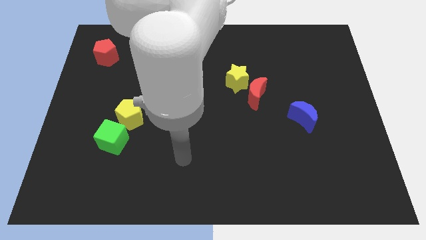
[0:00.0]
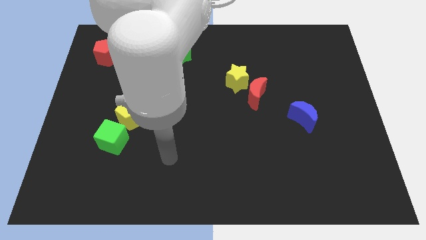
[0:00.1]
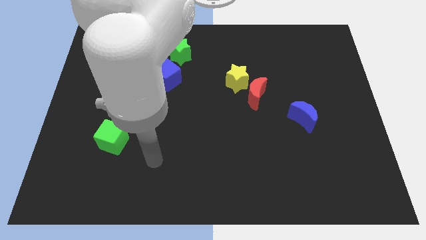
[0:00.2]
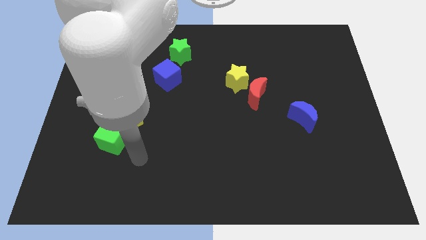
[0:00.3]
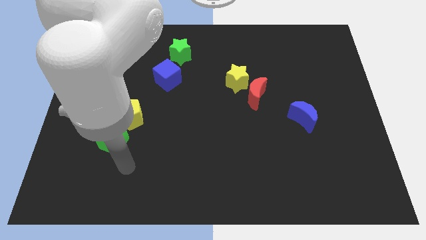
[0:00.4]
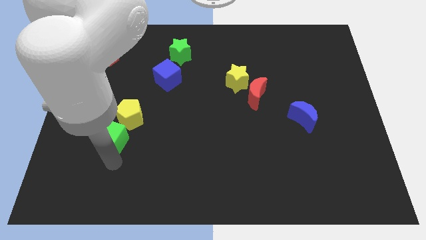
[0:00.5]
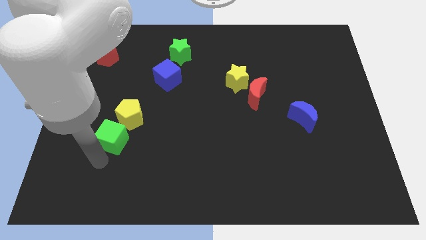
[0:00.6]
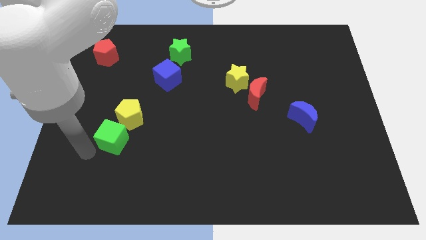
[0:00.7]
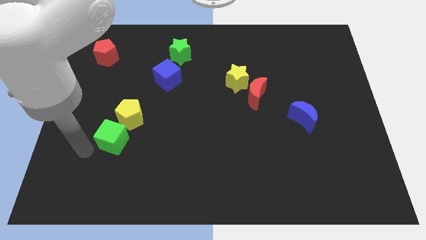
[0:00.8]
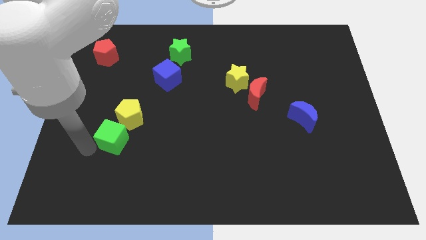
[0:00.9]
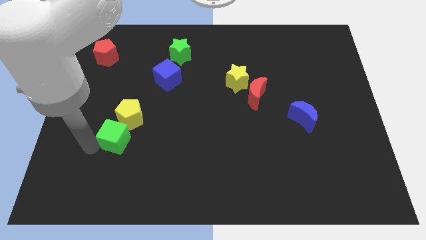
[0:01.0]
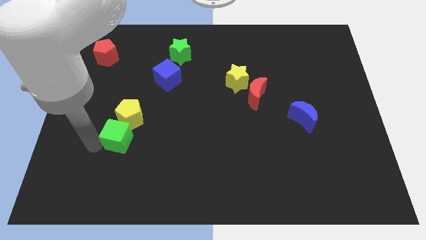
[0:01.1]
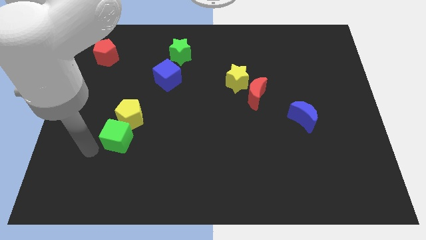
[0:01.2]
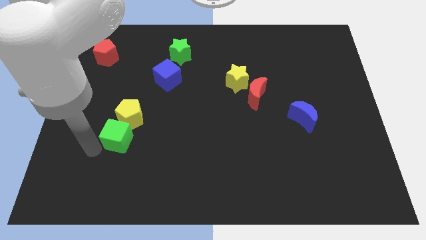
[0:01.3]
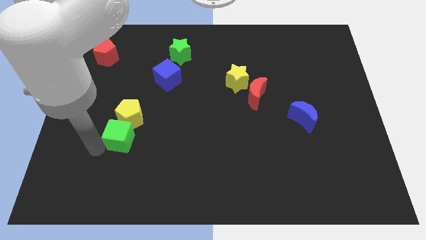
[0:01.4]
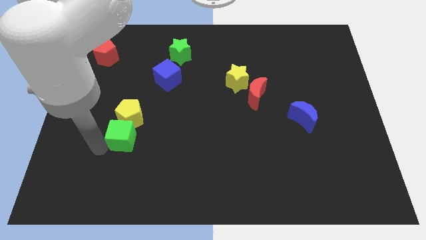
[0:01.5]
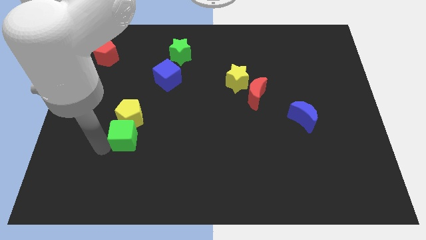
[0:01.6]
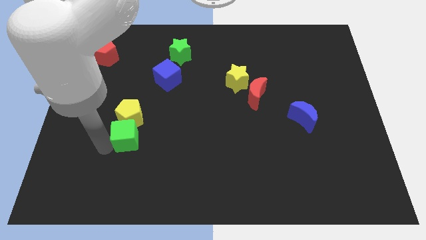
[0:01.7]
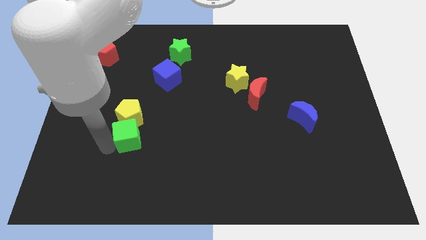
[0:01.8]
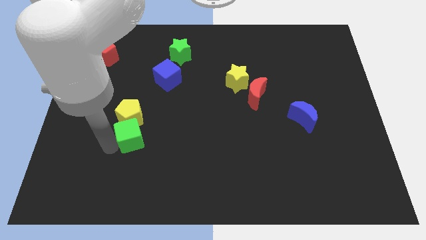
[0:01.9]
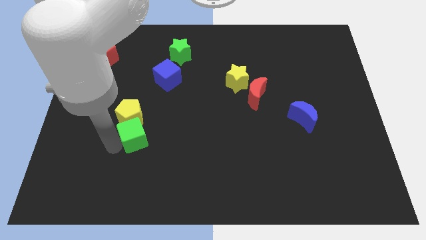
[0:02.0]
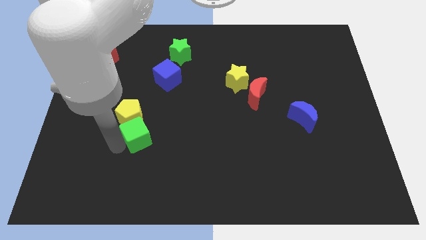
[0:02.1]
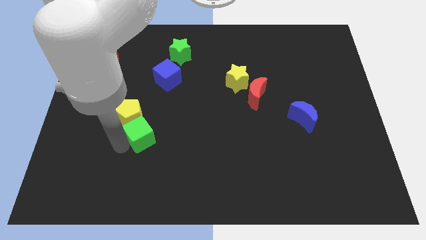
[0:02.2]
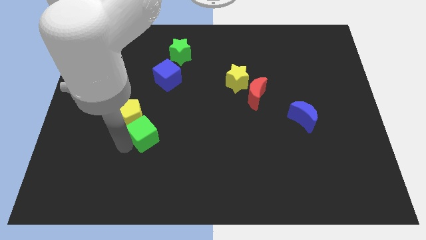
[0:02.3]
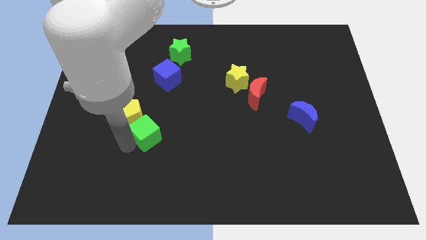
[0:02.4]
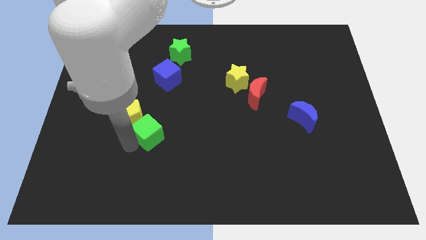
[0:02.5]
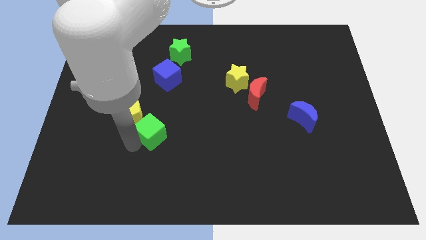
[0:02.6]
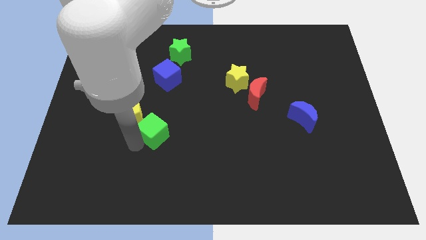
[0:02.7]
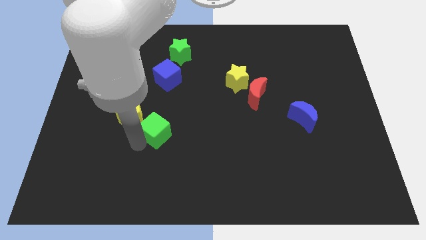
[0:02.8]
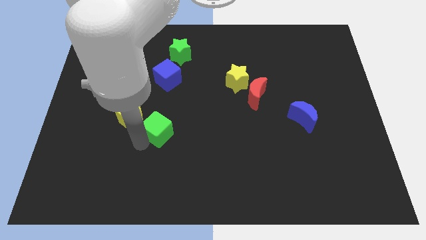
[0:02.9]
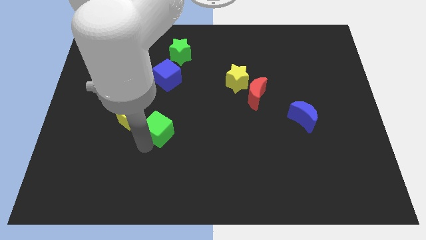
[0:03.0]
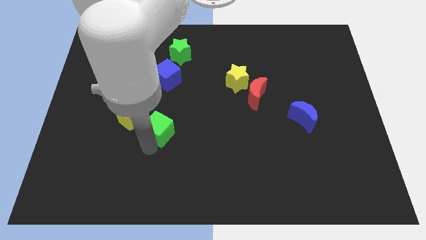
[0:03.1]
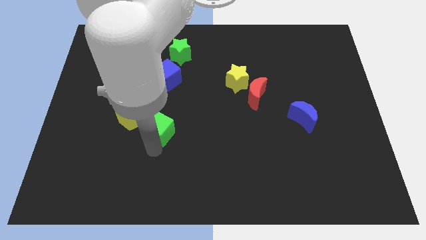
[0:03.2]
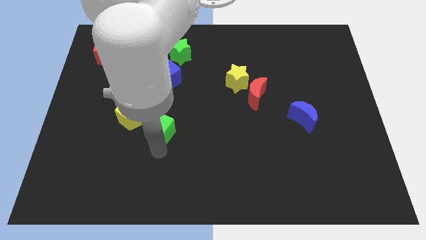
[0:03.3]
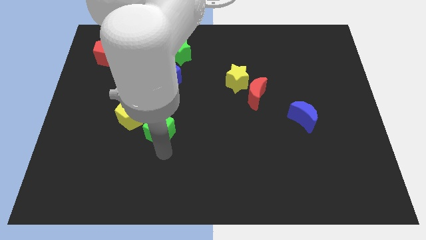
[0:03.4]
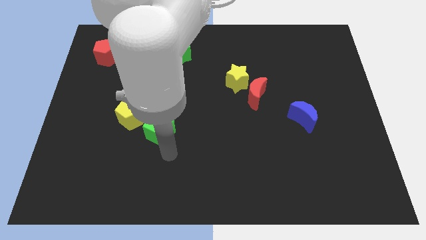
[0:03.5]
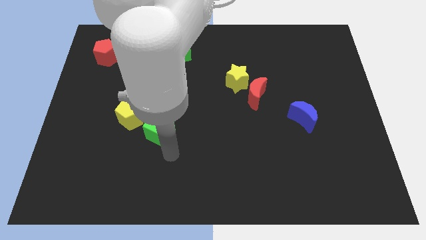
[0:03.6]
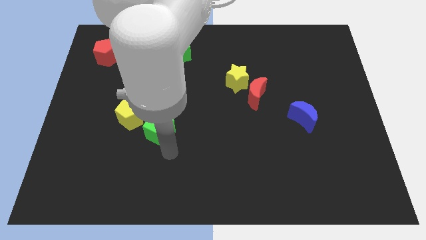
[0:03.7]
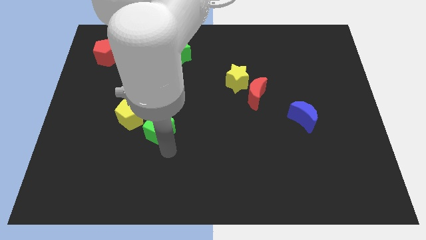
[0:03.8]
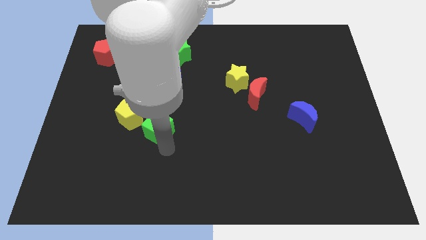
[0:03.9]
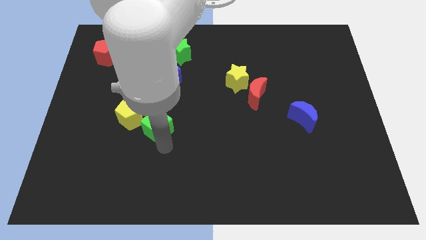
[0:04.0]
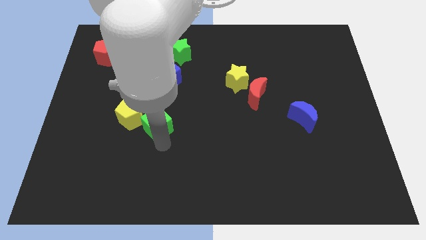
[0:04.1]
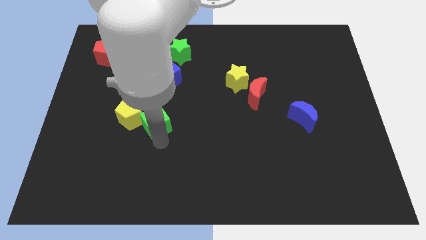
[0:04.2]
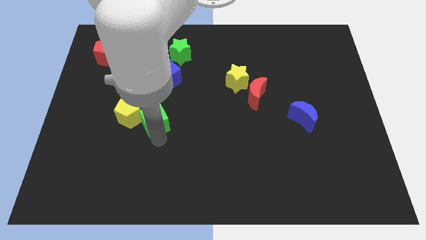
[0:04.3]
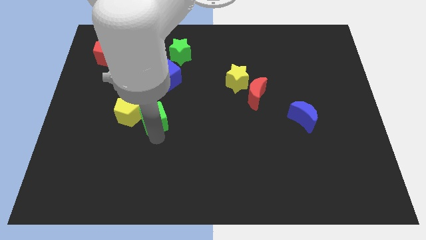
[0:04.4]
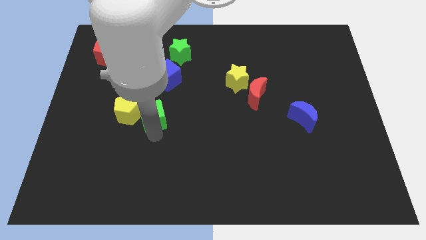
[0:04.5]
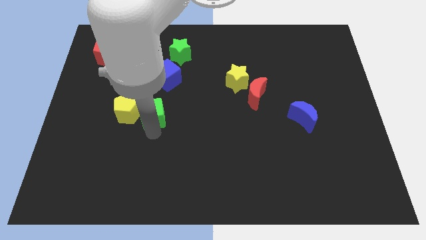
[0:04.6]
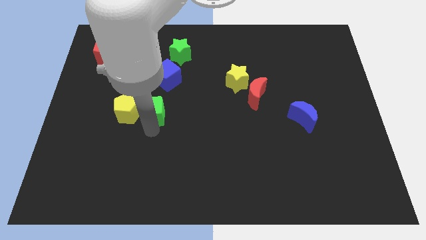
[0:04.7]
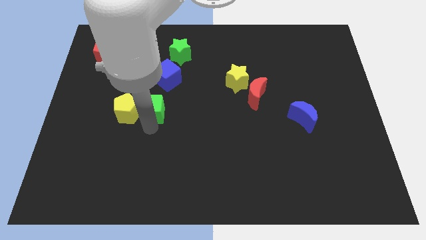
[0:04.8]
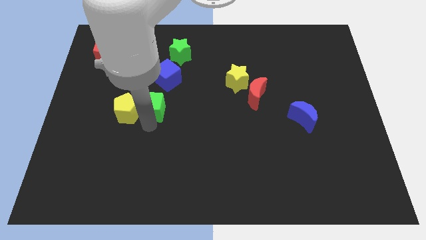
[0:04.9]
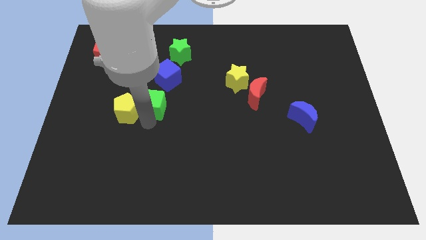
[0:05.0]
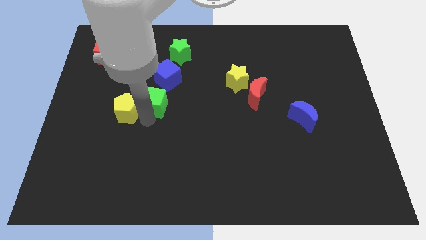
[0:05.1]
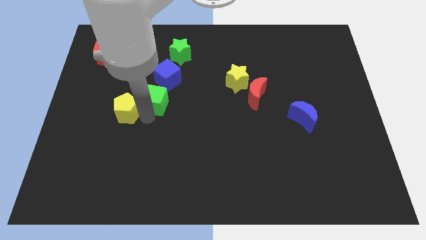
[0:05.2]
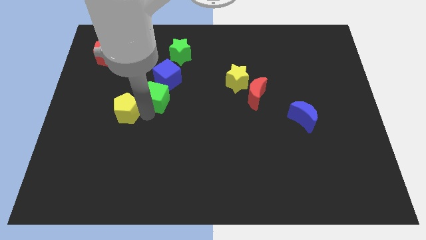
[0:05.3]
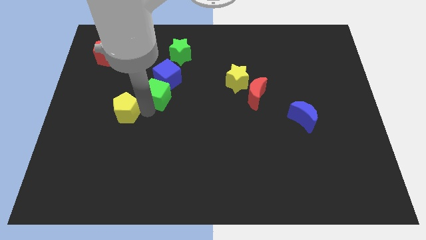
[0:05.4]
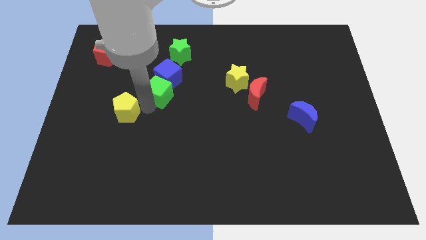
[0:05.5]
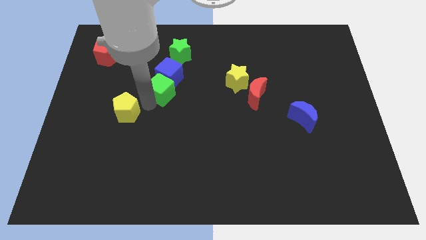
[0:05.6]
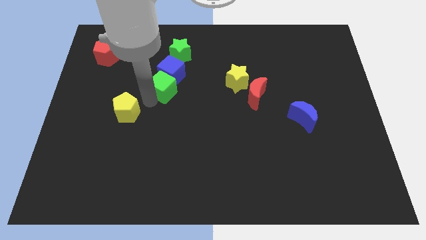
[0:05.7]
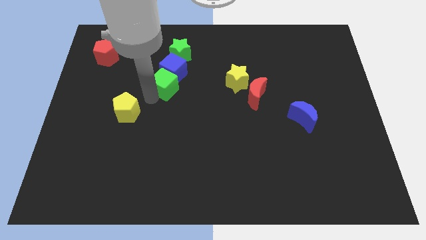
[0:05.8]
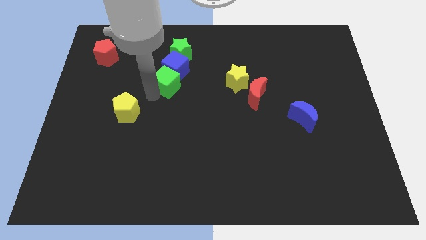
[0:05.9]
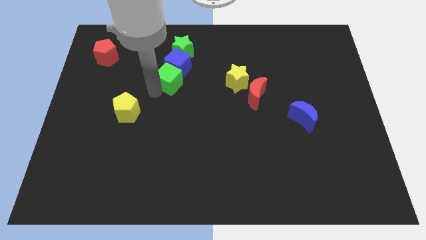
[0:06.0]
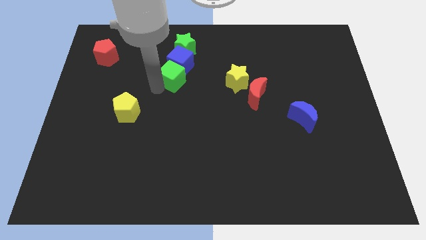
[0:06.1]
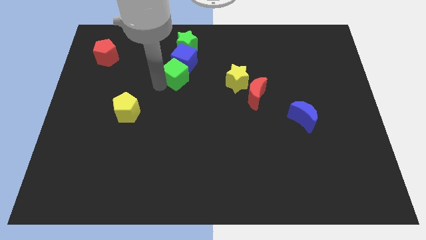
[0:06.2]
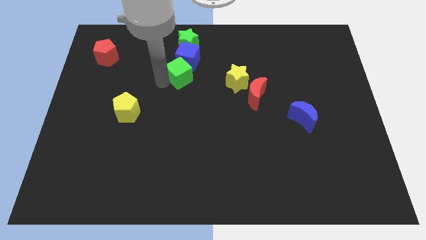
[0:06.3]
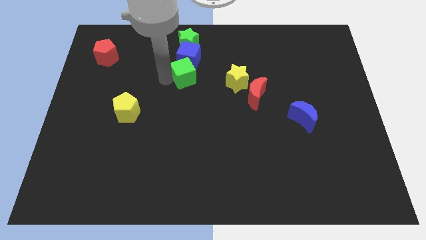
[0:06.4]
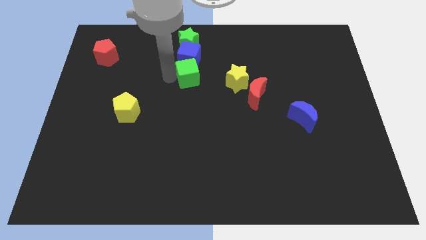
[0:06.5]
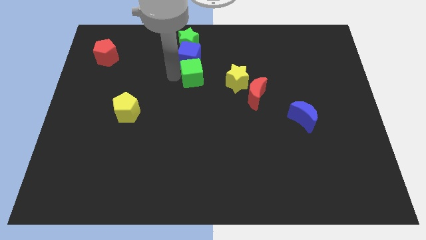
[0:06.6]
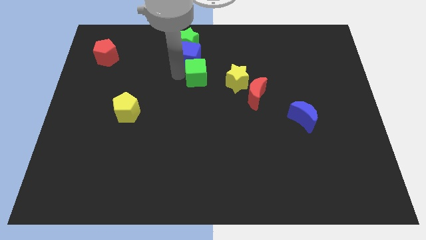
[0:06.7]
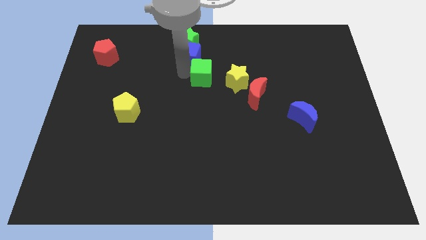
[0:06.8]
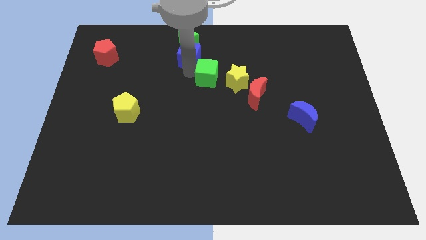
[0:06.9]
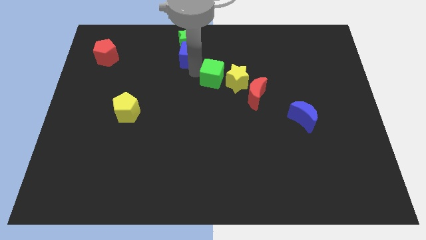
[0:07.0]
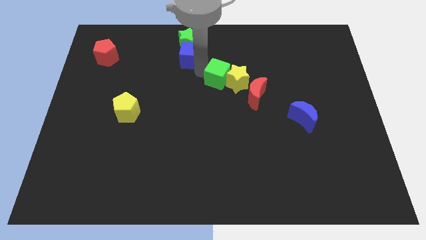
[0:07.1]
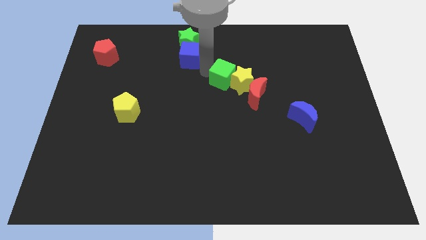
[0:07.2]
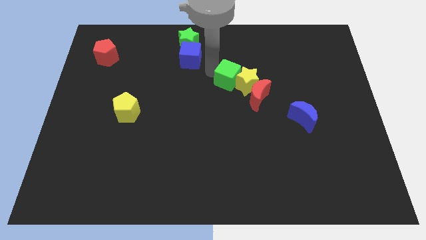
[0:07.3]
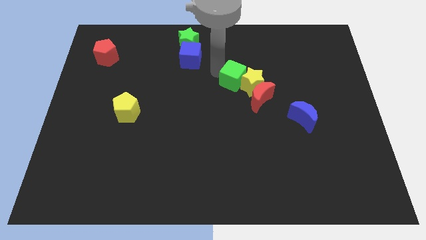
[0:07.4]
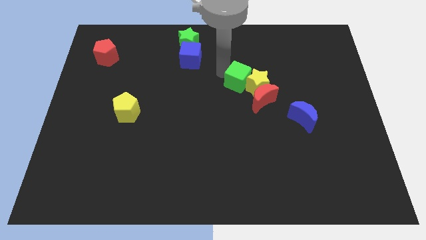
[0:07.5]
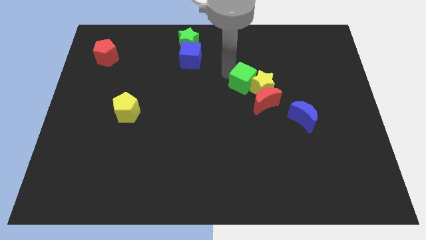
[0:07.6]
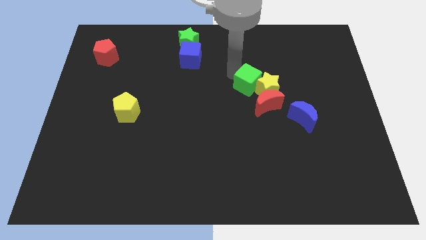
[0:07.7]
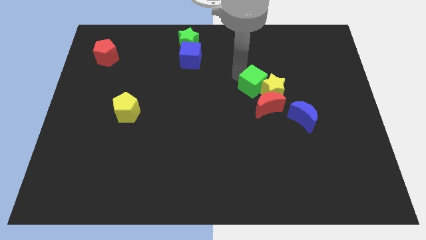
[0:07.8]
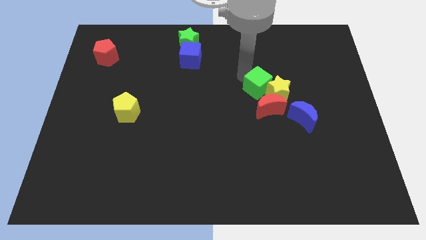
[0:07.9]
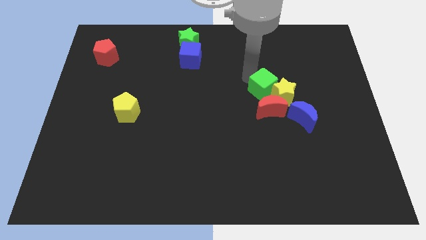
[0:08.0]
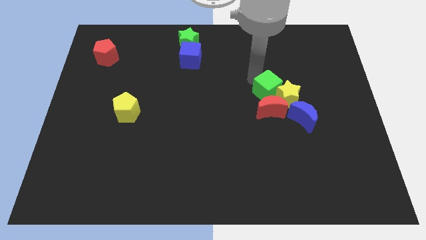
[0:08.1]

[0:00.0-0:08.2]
move the green cube next to the red moon
